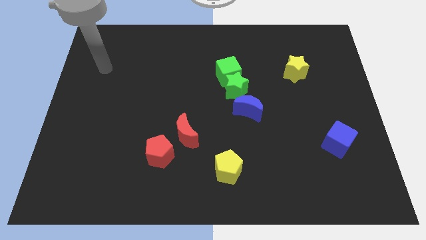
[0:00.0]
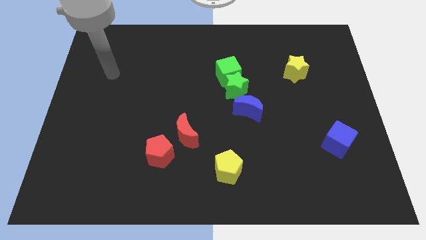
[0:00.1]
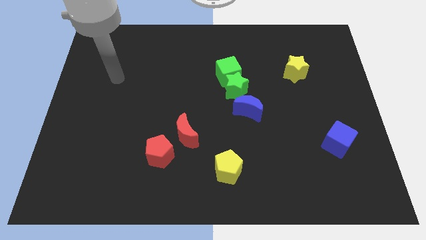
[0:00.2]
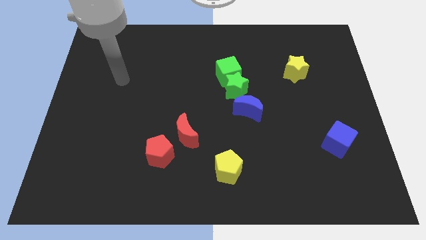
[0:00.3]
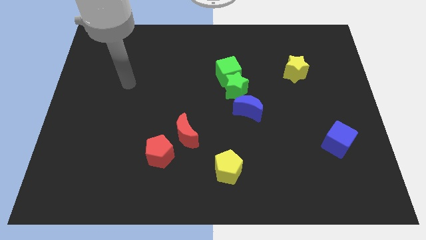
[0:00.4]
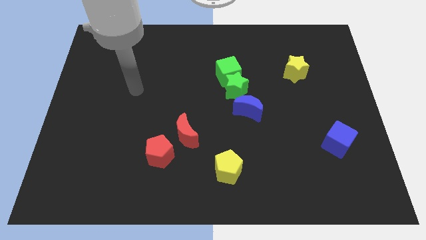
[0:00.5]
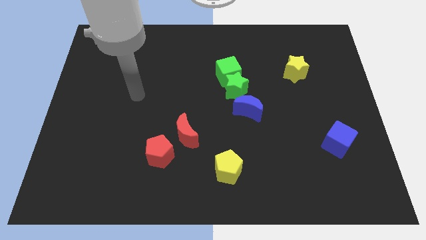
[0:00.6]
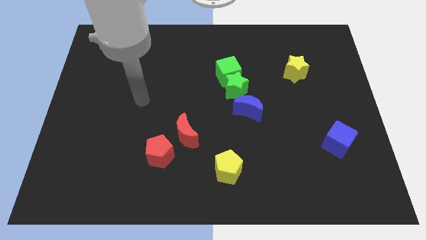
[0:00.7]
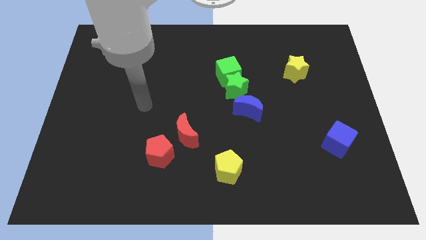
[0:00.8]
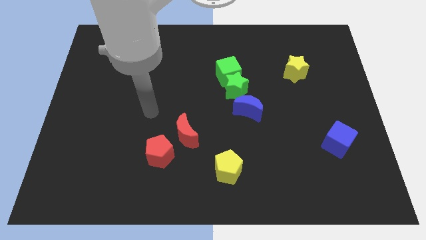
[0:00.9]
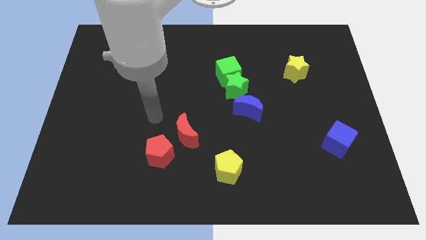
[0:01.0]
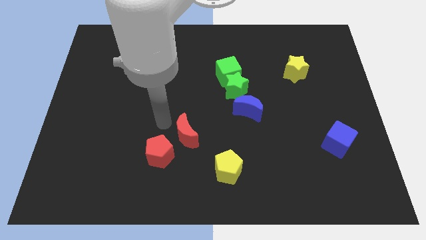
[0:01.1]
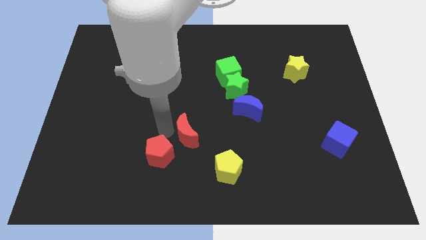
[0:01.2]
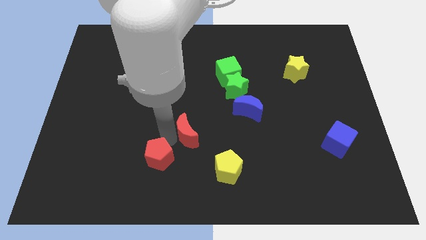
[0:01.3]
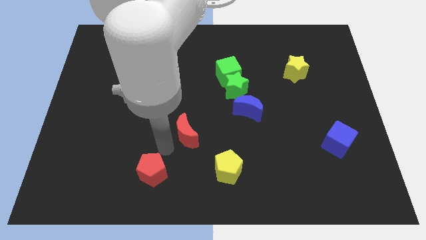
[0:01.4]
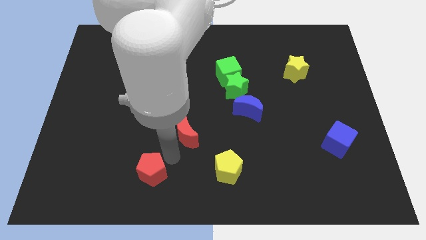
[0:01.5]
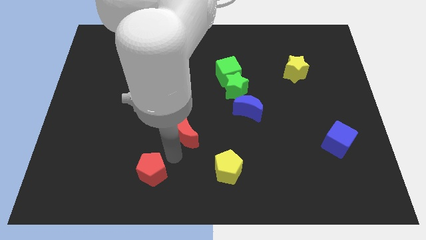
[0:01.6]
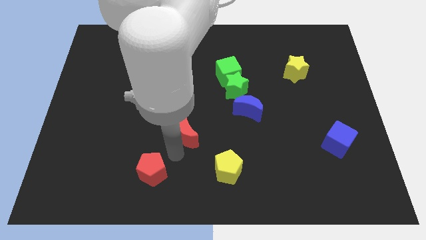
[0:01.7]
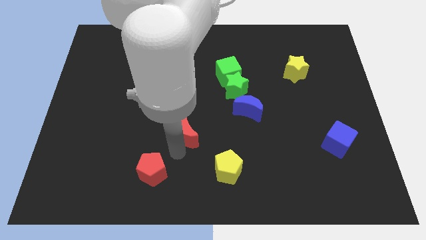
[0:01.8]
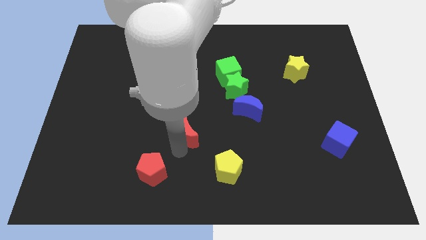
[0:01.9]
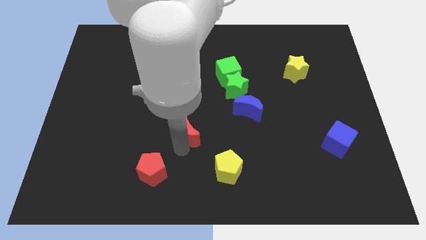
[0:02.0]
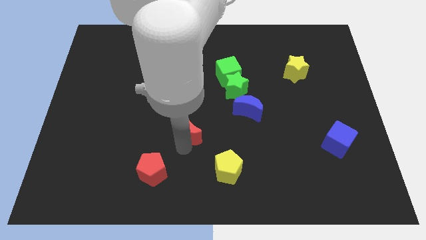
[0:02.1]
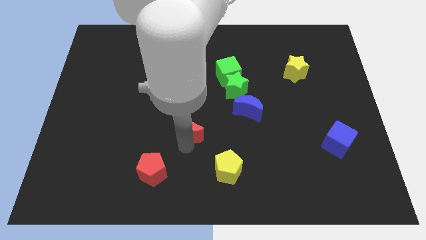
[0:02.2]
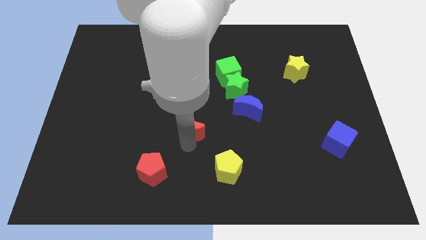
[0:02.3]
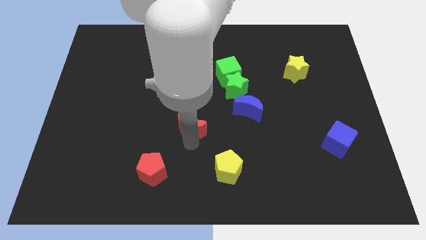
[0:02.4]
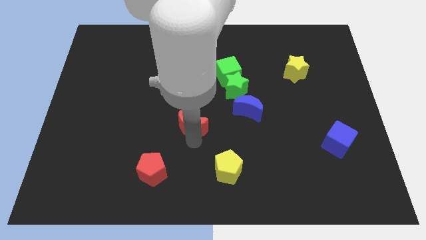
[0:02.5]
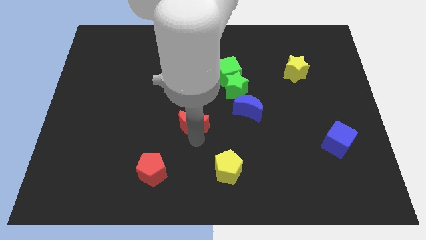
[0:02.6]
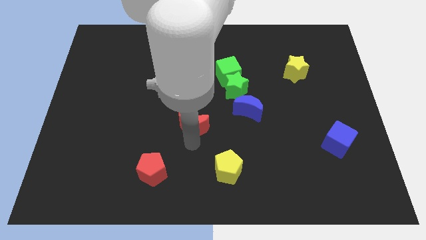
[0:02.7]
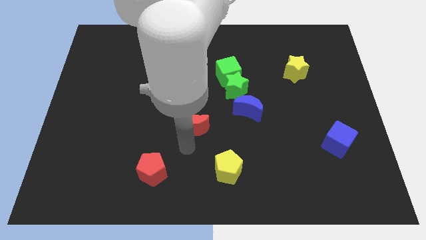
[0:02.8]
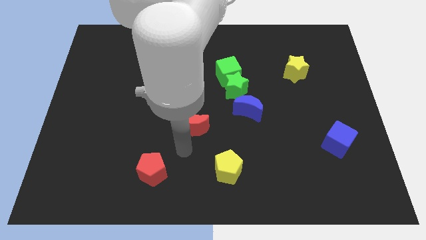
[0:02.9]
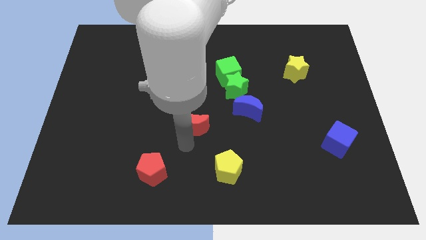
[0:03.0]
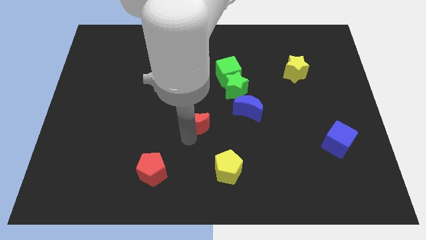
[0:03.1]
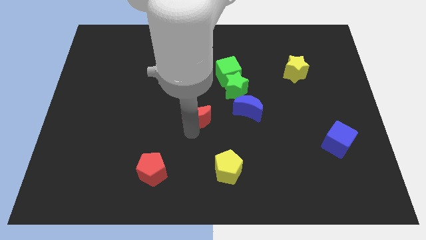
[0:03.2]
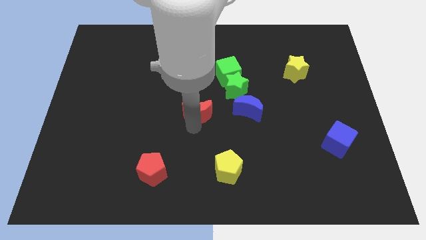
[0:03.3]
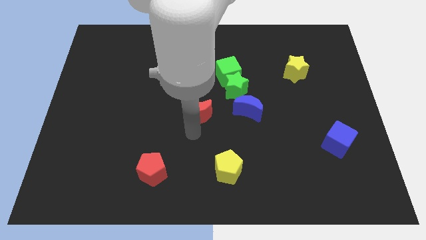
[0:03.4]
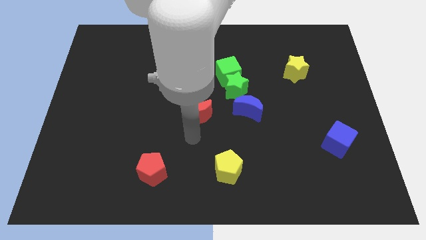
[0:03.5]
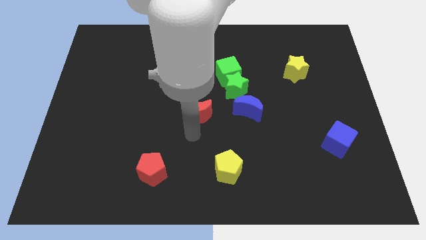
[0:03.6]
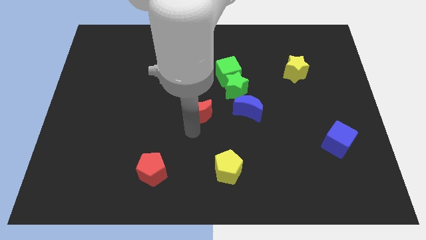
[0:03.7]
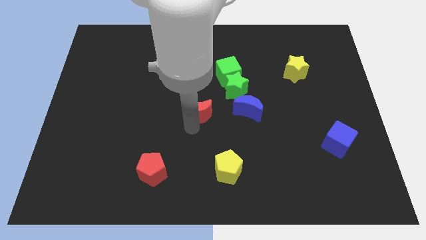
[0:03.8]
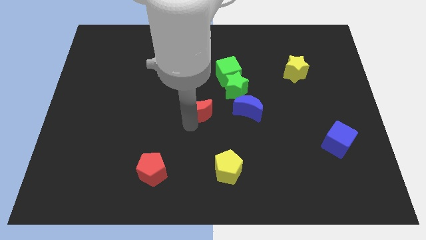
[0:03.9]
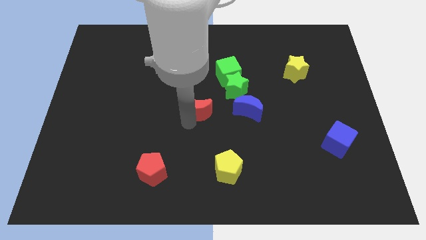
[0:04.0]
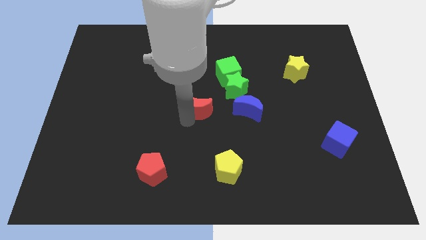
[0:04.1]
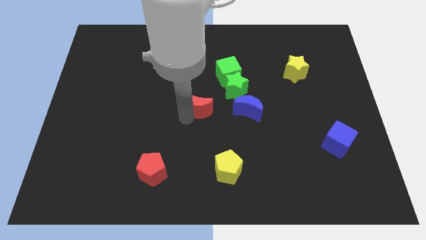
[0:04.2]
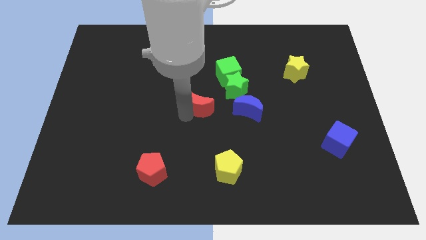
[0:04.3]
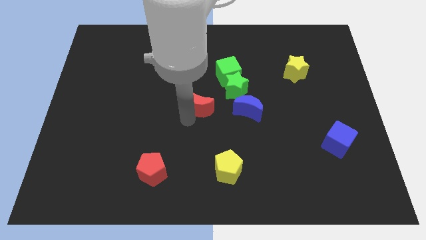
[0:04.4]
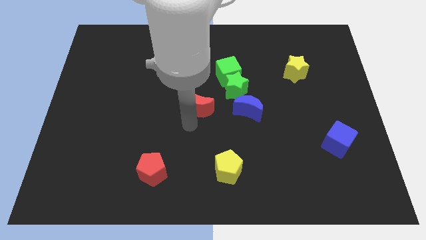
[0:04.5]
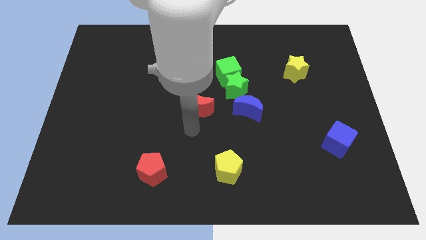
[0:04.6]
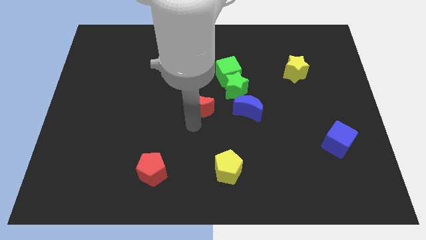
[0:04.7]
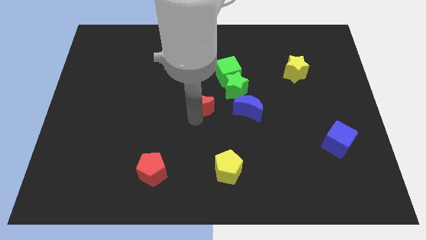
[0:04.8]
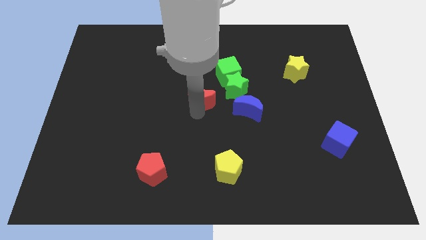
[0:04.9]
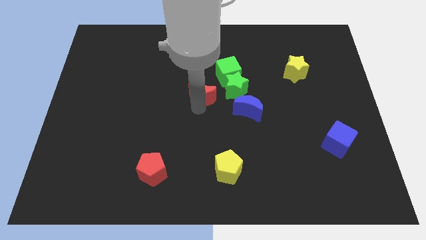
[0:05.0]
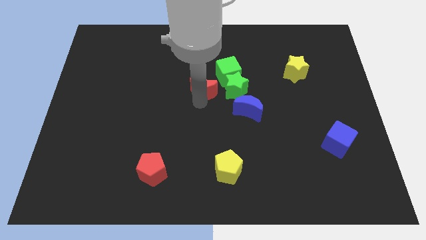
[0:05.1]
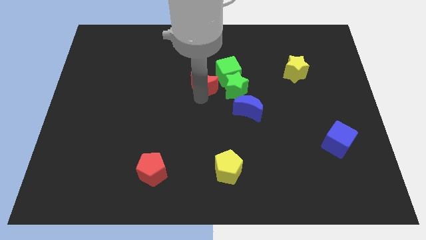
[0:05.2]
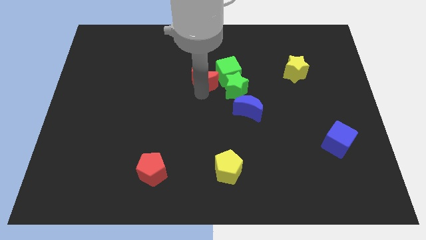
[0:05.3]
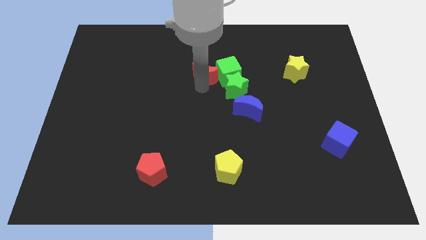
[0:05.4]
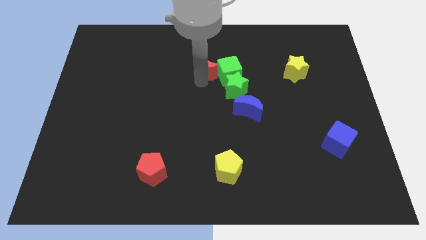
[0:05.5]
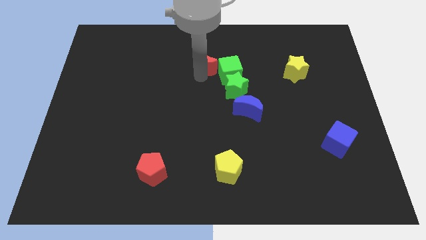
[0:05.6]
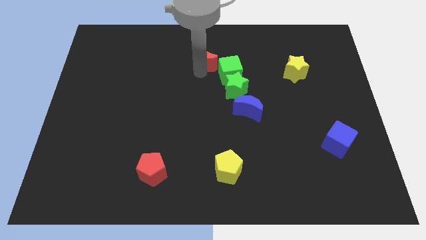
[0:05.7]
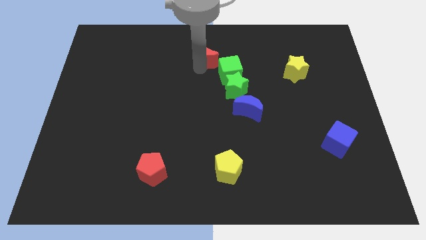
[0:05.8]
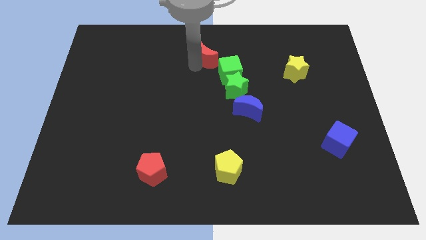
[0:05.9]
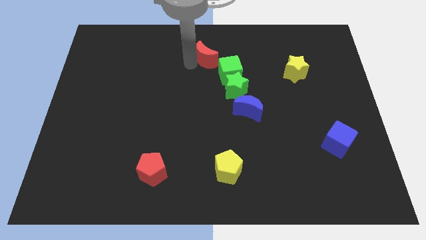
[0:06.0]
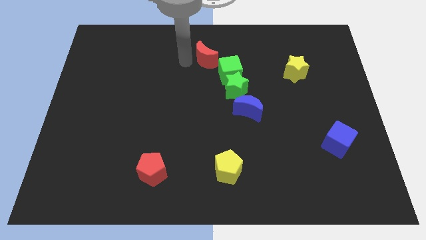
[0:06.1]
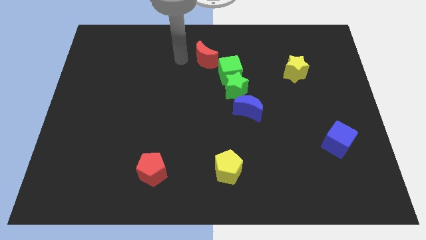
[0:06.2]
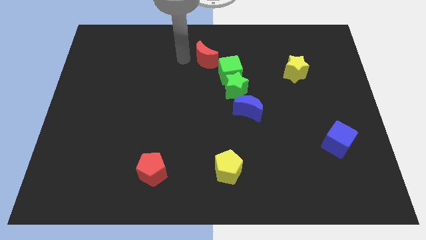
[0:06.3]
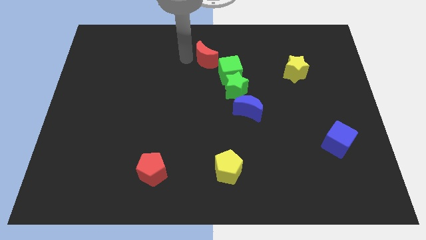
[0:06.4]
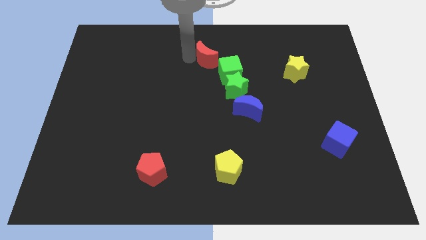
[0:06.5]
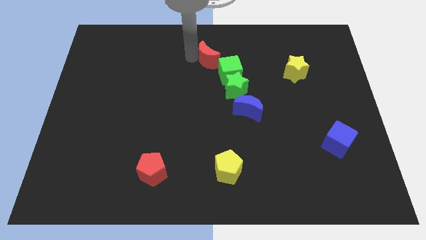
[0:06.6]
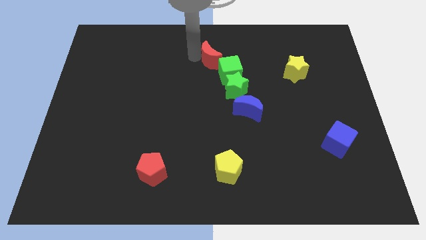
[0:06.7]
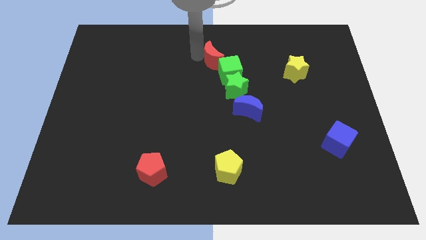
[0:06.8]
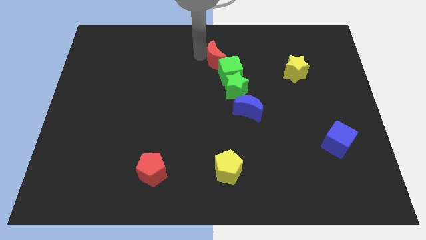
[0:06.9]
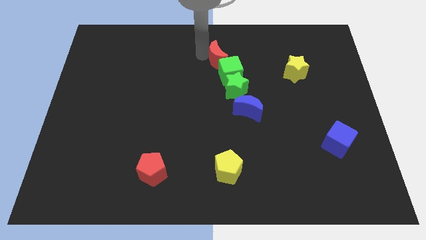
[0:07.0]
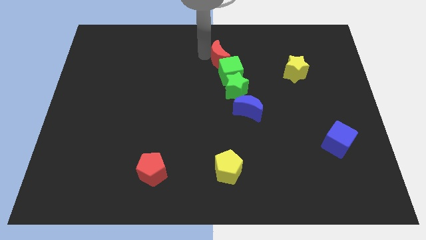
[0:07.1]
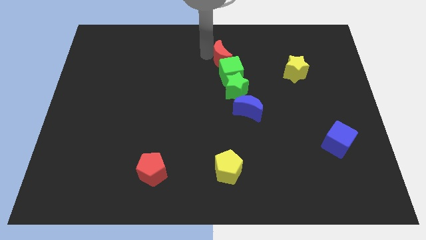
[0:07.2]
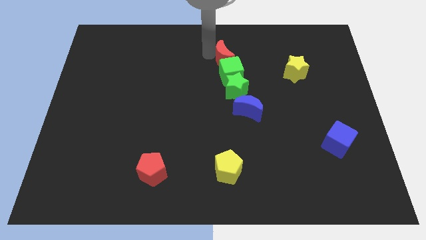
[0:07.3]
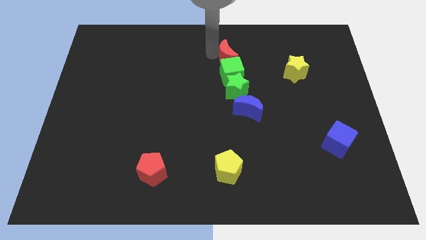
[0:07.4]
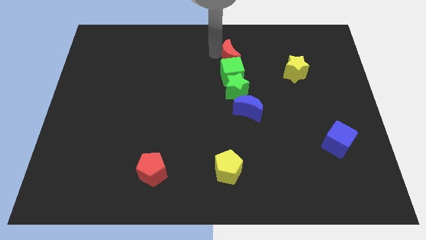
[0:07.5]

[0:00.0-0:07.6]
slide the red moon up and to the right diagonally

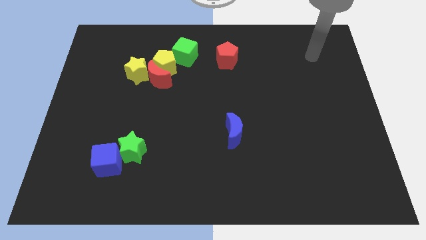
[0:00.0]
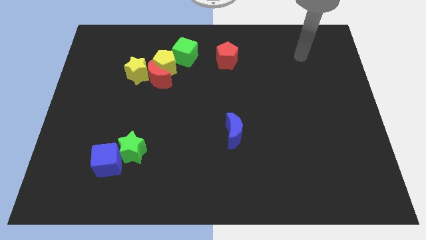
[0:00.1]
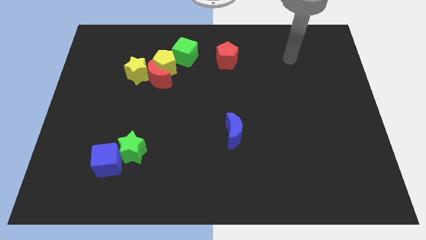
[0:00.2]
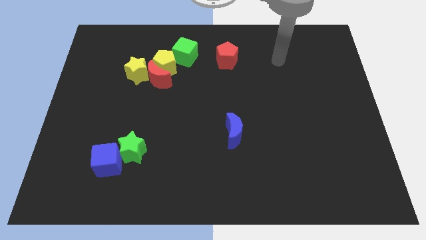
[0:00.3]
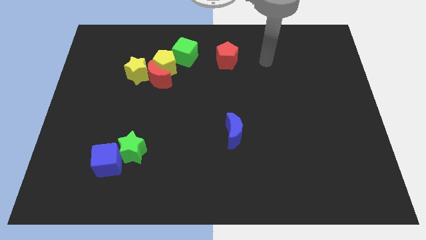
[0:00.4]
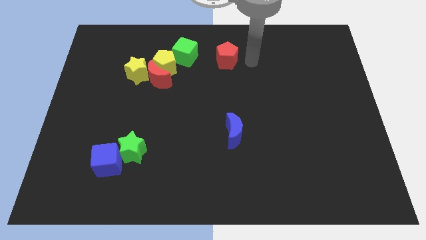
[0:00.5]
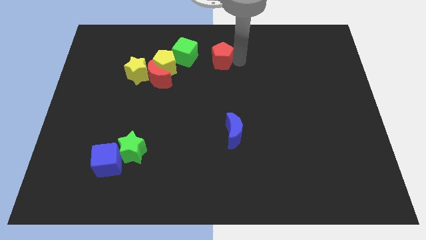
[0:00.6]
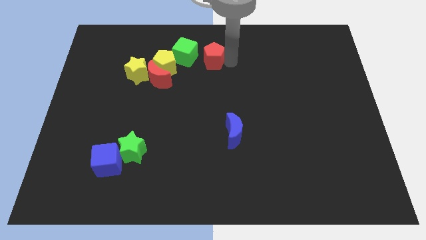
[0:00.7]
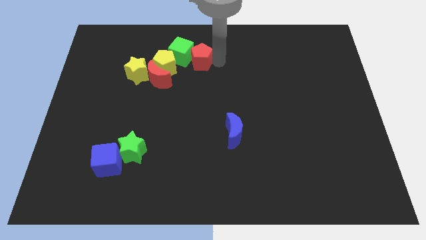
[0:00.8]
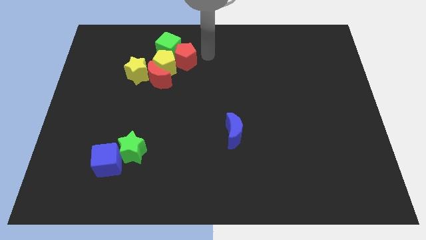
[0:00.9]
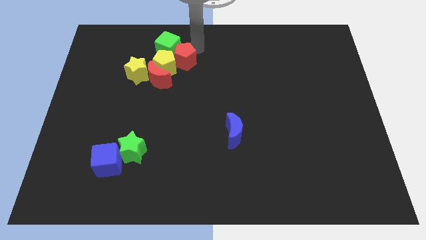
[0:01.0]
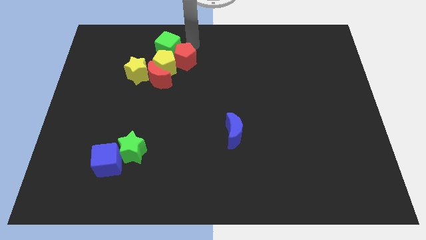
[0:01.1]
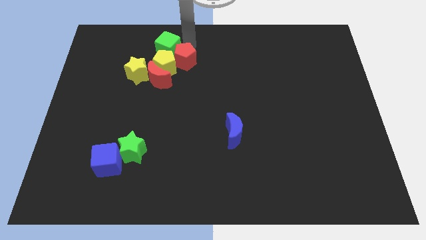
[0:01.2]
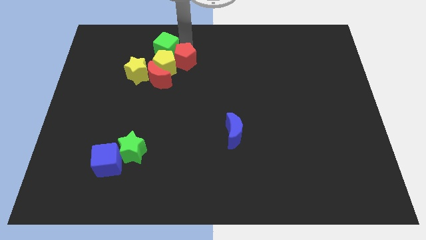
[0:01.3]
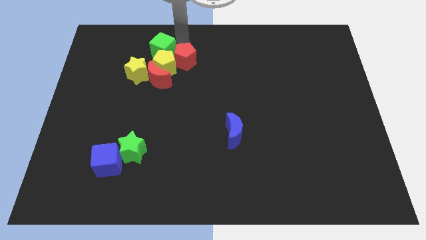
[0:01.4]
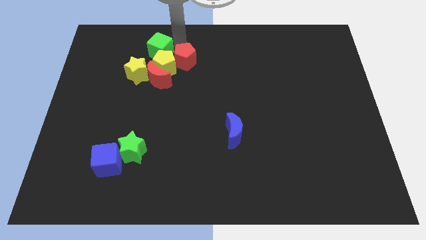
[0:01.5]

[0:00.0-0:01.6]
push the green cube left a little bit
